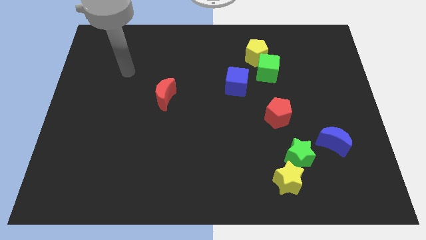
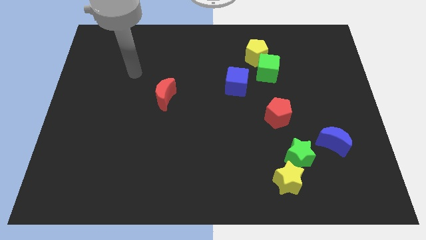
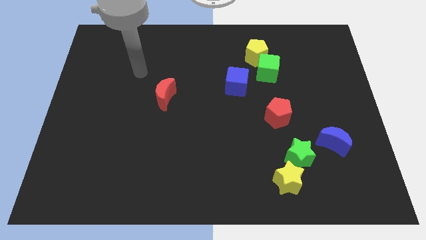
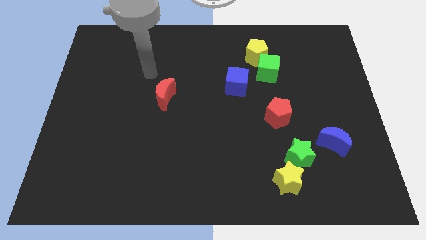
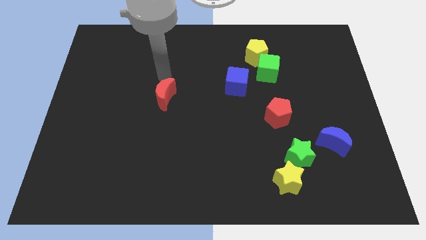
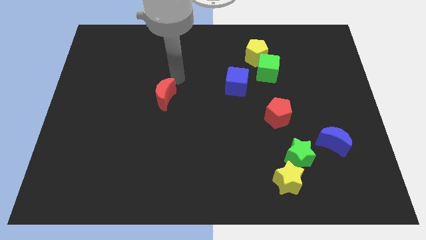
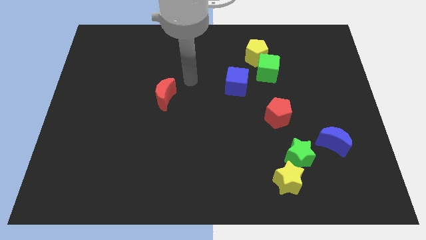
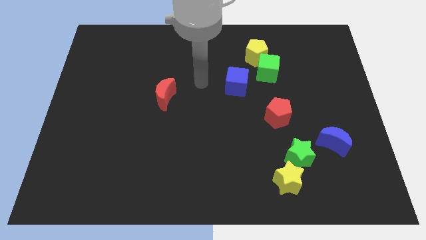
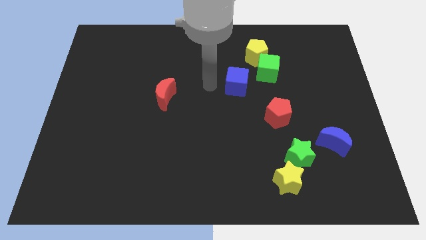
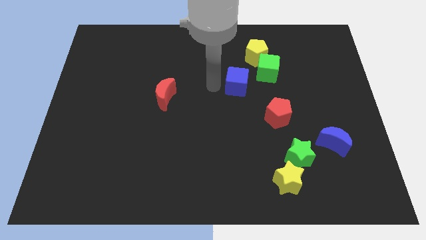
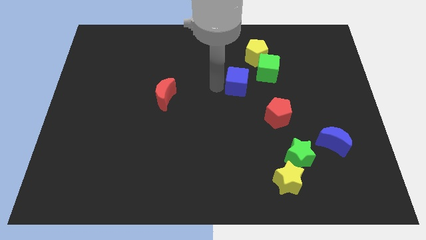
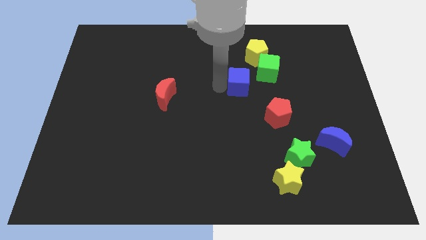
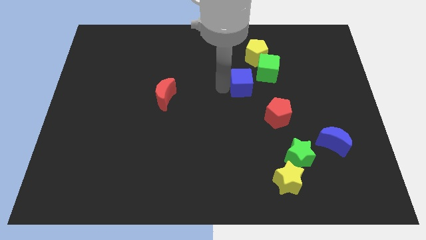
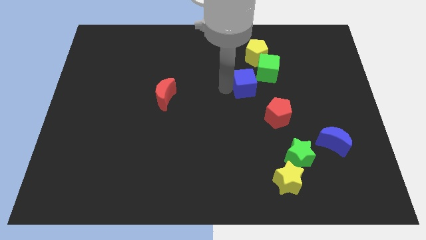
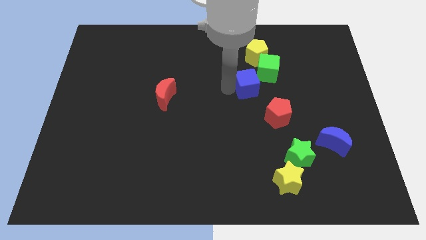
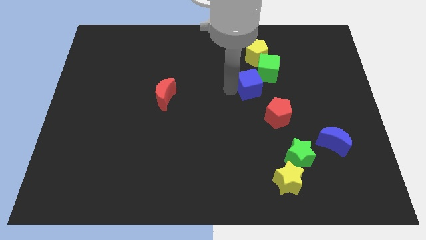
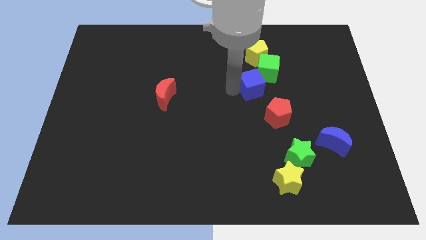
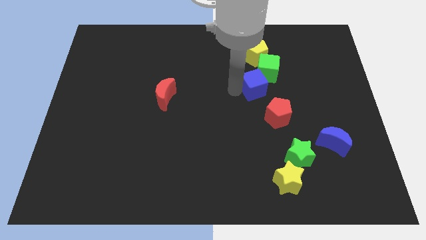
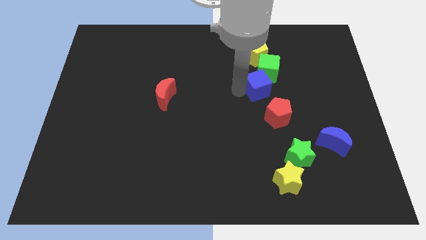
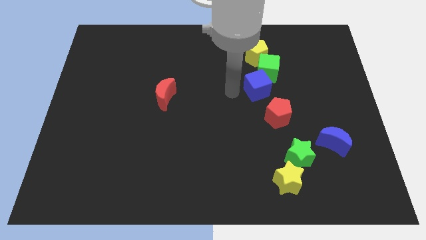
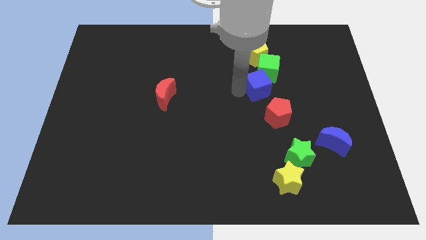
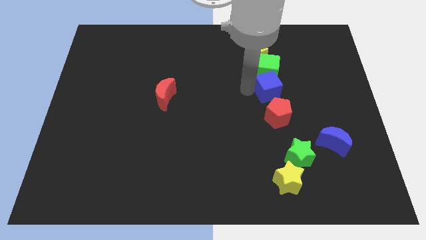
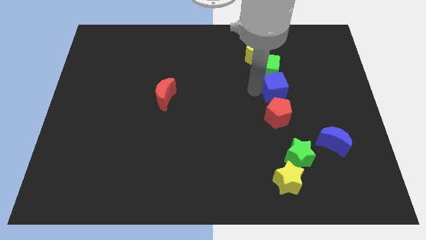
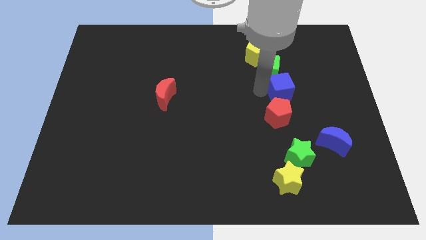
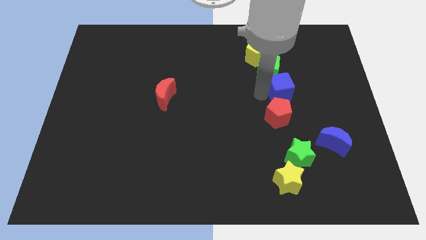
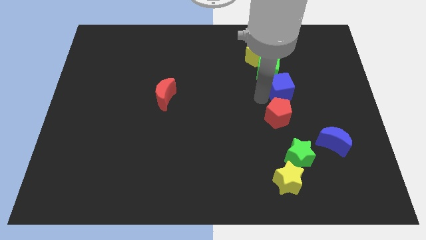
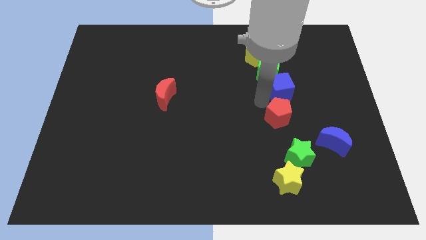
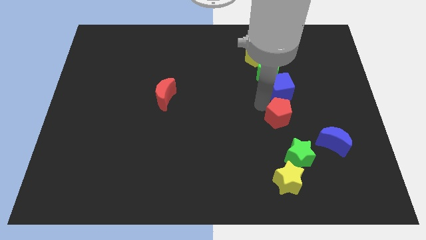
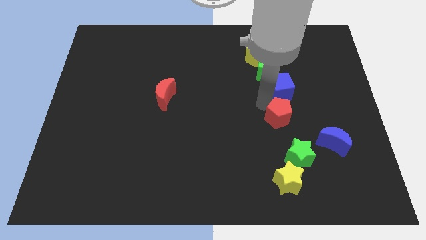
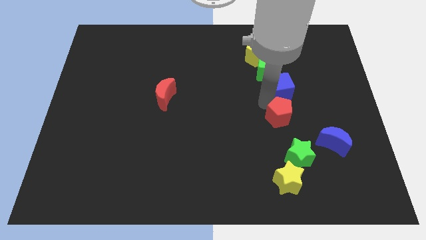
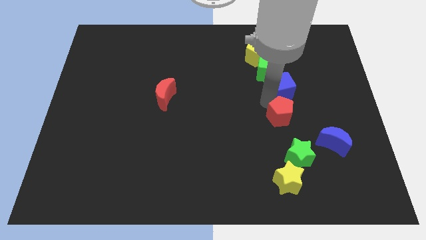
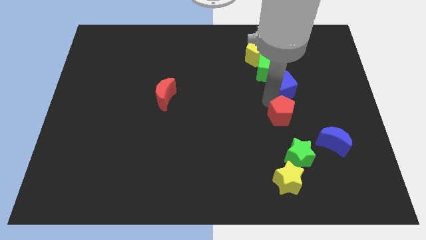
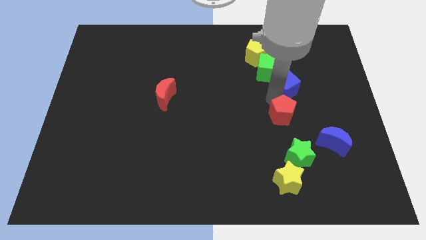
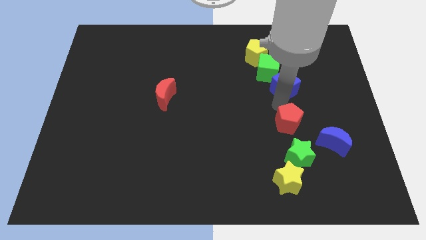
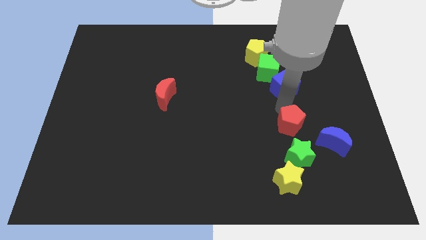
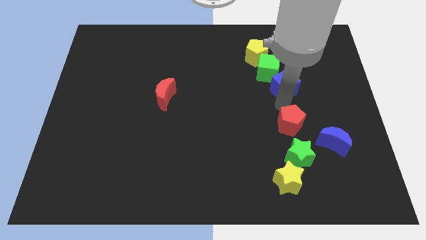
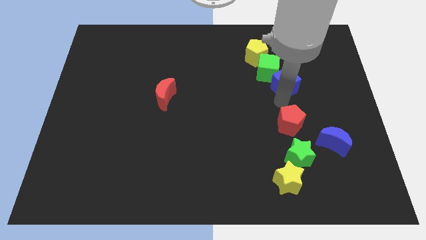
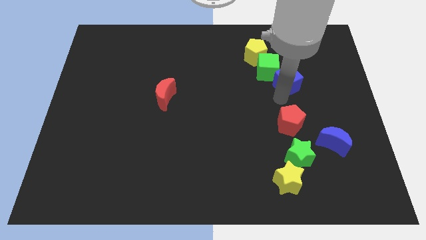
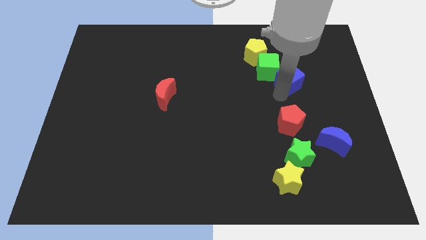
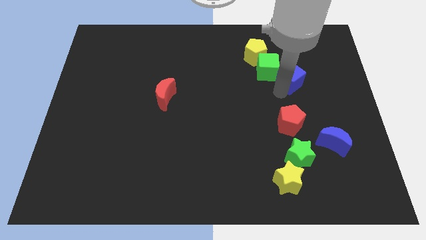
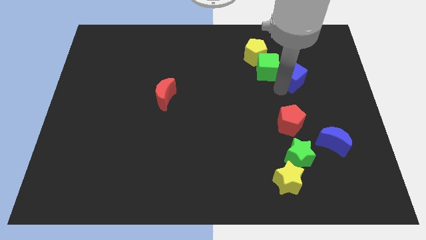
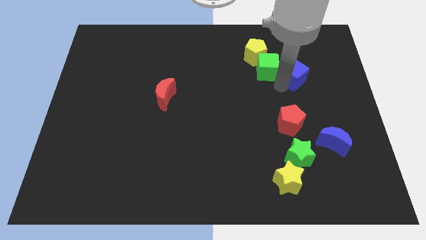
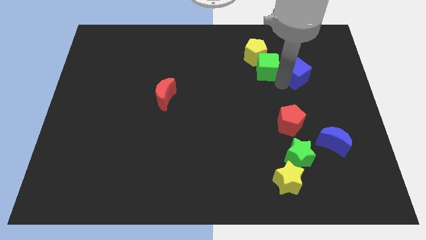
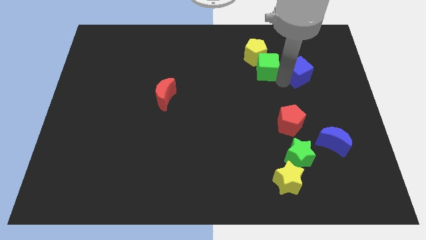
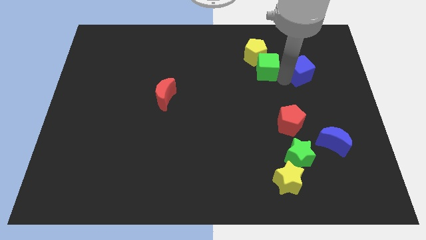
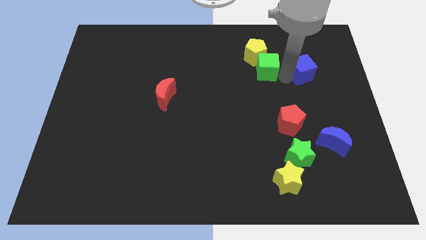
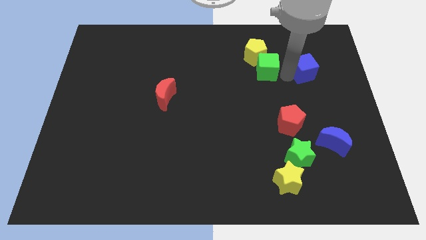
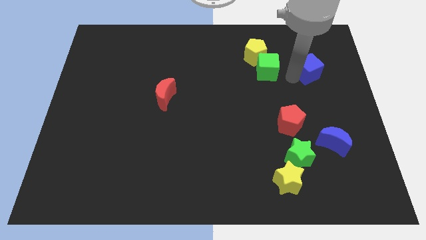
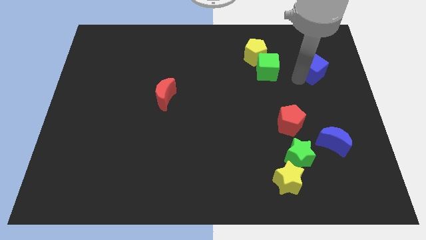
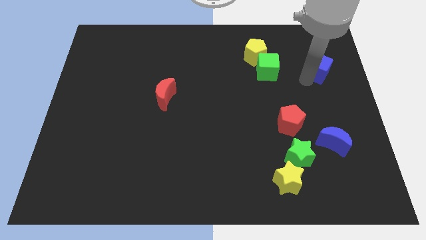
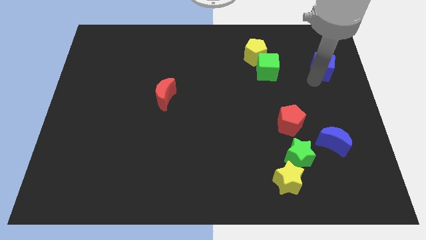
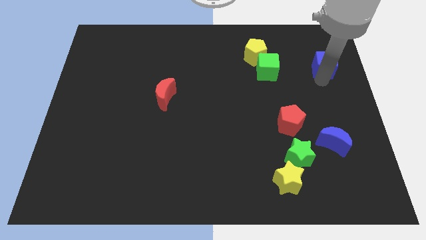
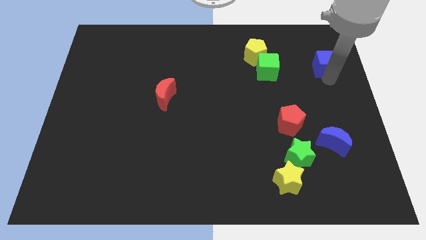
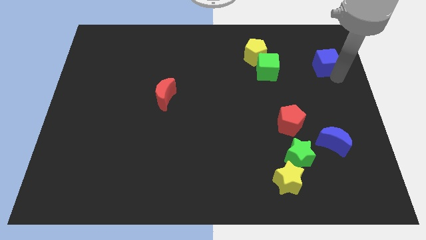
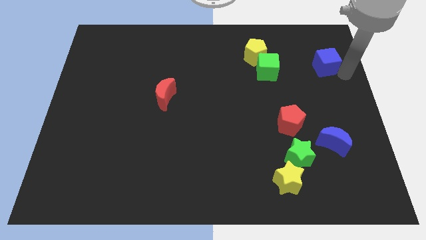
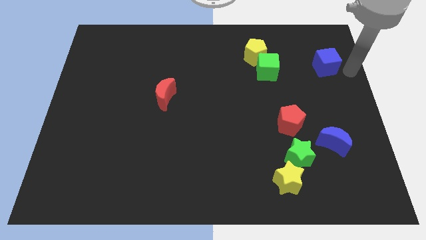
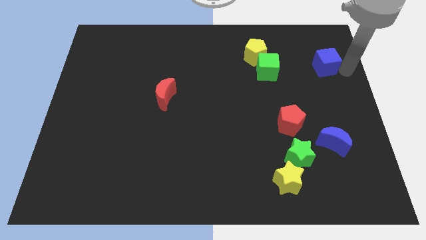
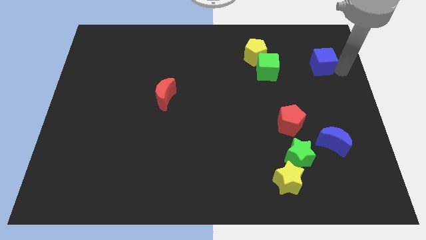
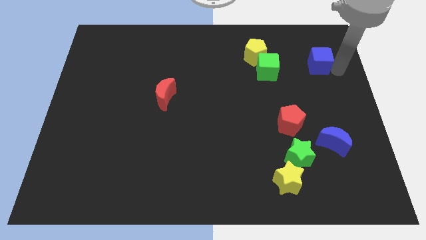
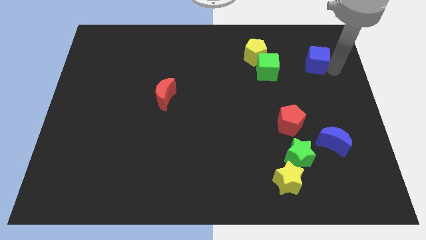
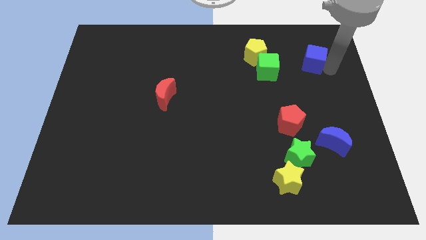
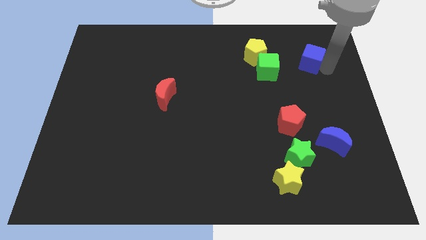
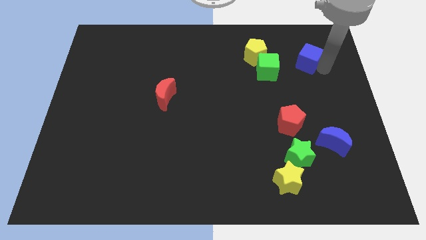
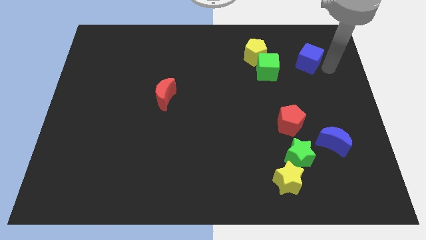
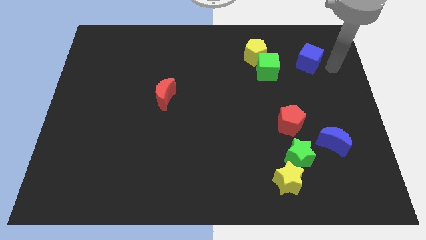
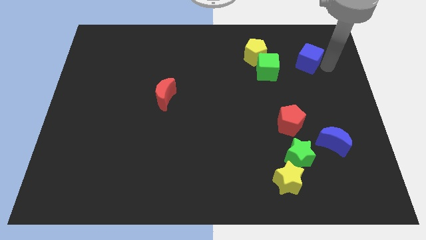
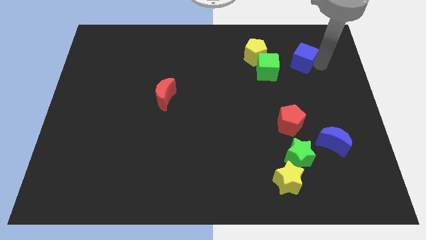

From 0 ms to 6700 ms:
put the blue cube to the top right of the green cube

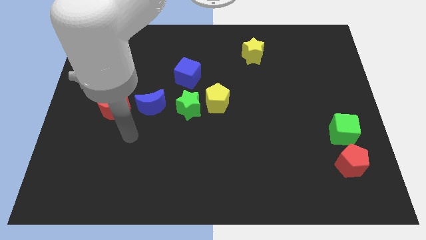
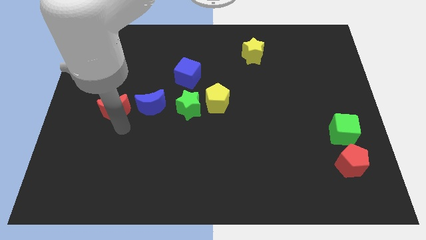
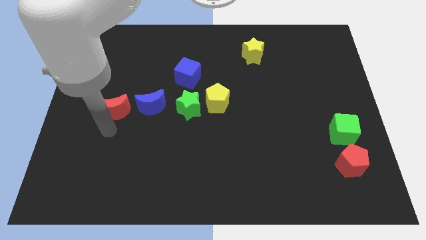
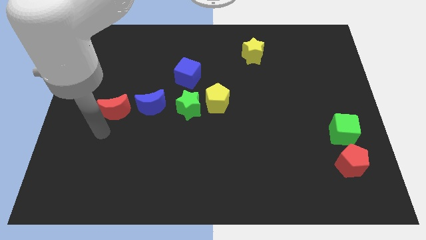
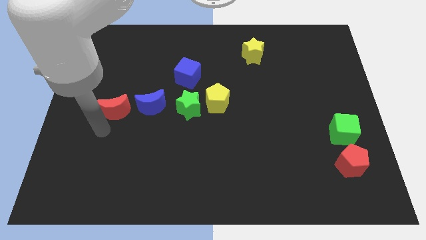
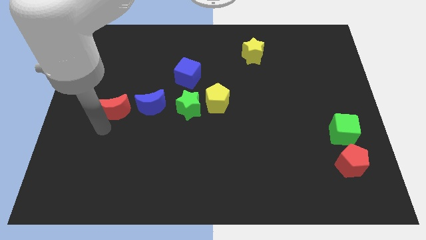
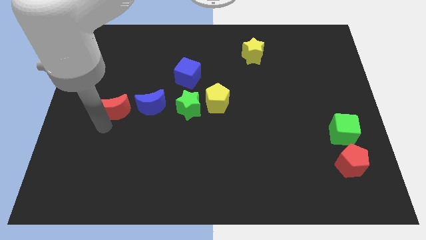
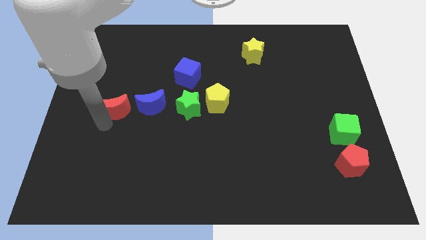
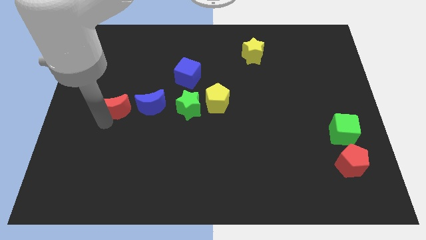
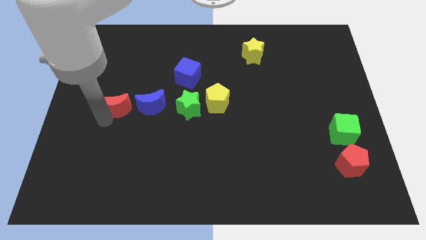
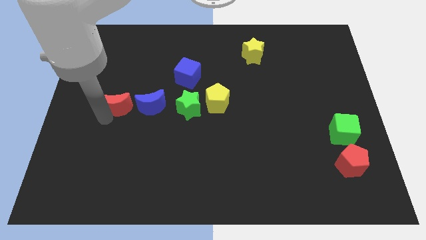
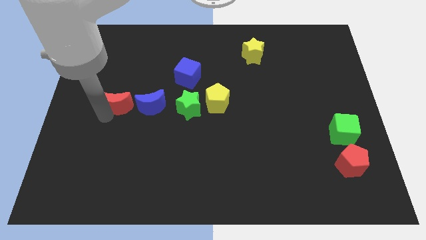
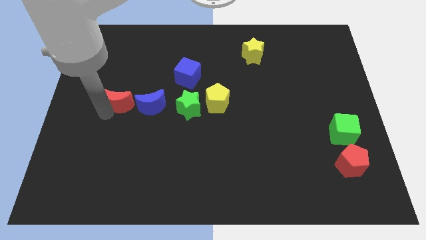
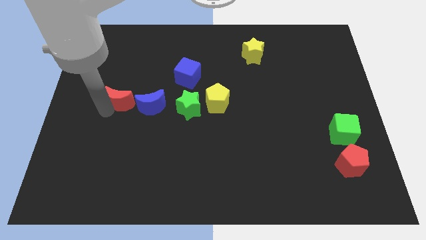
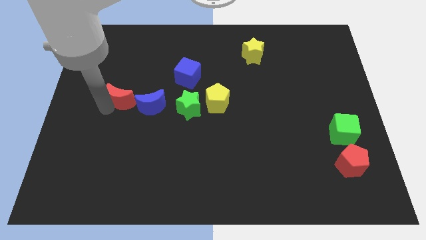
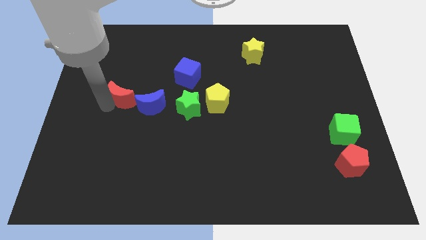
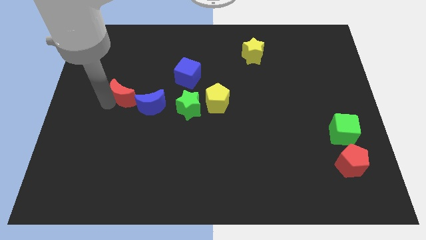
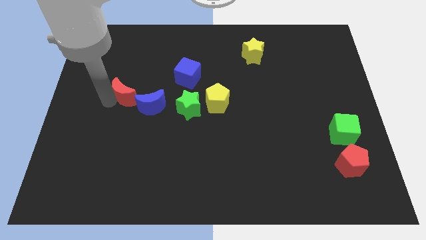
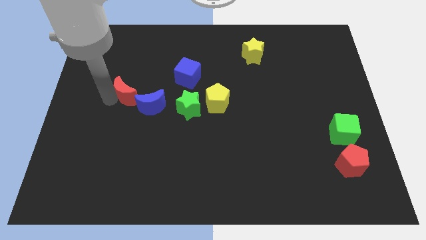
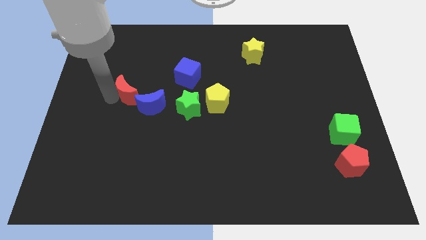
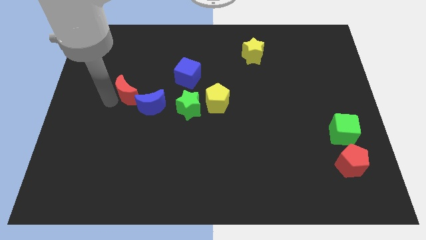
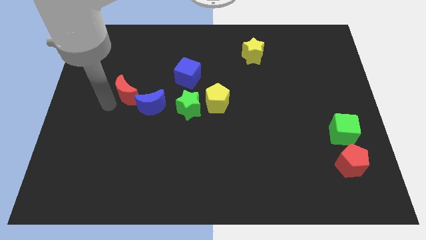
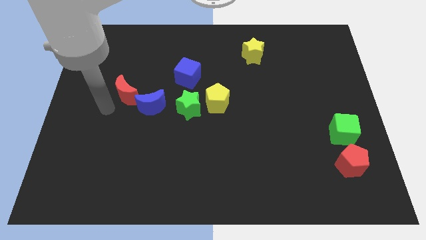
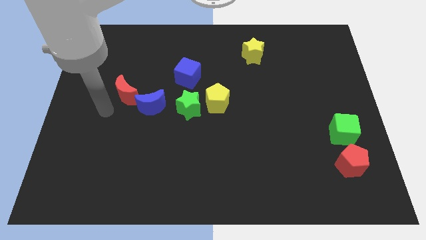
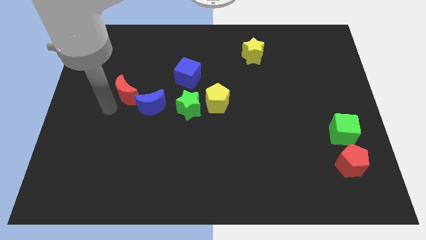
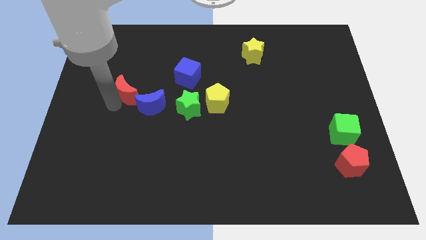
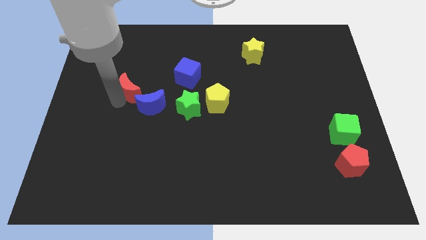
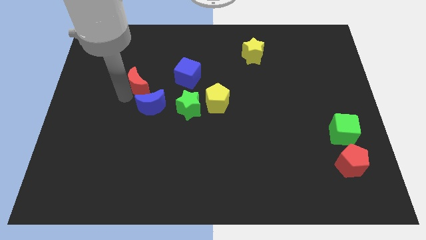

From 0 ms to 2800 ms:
move the red moon above the blue moon
